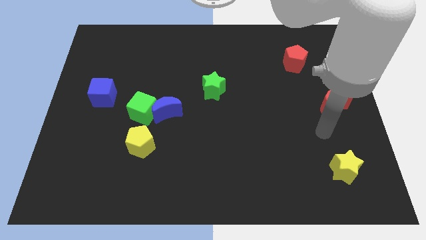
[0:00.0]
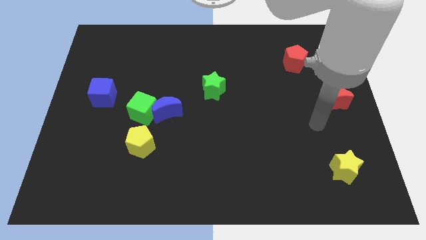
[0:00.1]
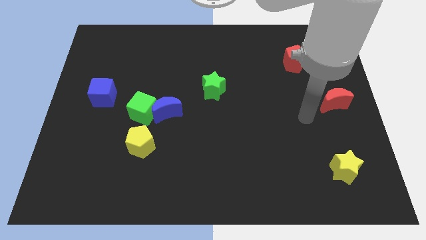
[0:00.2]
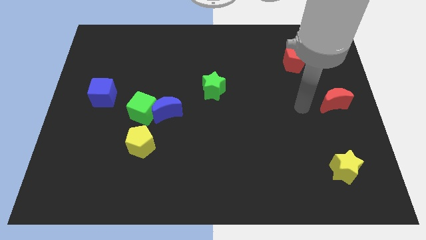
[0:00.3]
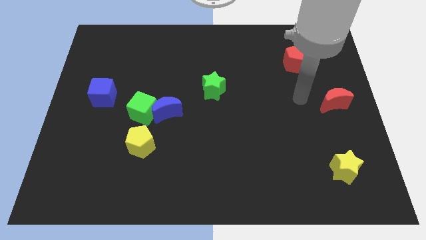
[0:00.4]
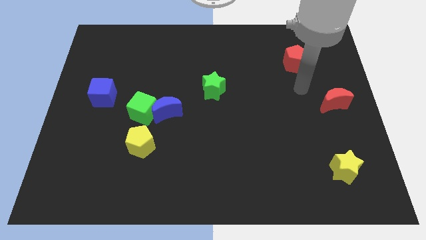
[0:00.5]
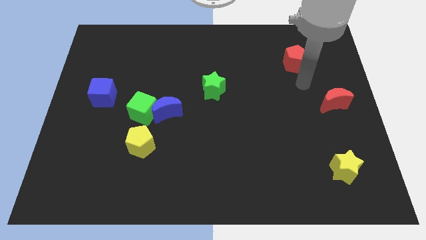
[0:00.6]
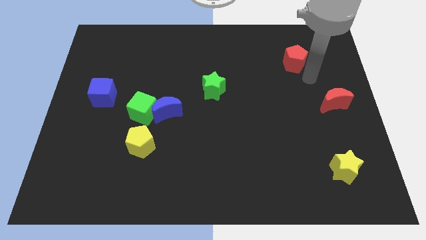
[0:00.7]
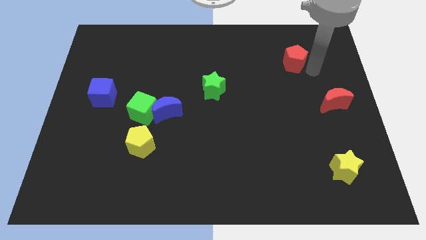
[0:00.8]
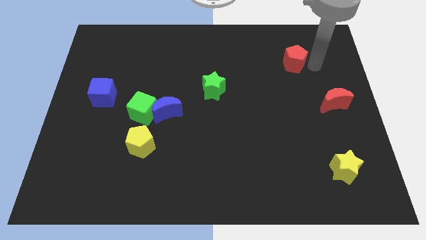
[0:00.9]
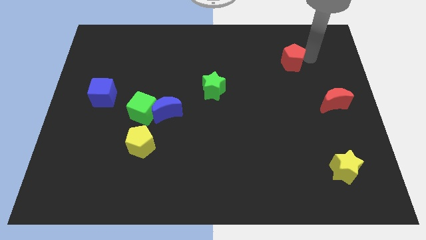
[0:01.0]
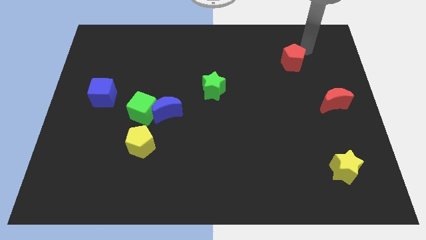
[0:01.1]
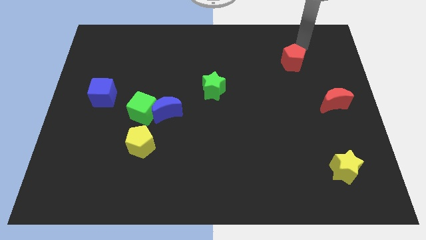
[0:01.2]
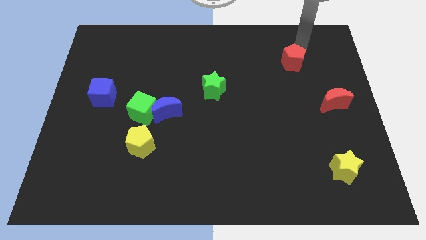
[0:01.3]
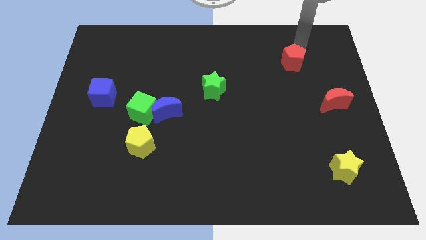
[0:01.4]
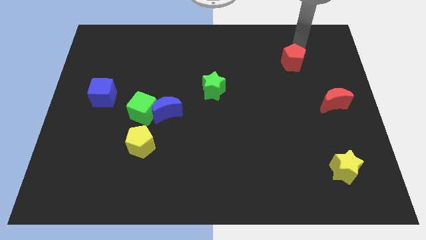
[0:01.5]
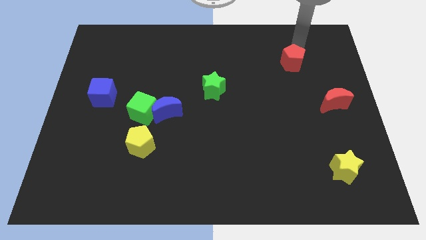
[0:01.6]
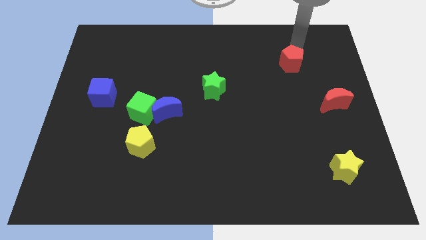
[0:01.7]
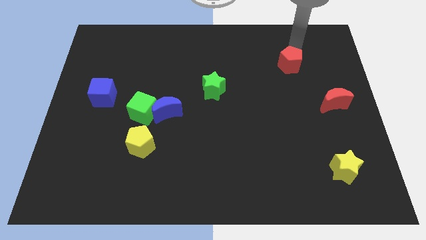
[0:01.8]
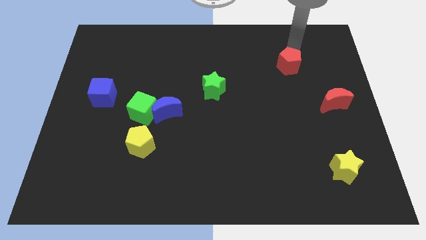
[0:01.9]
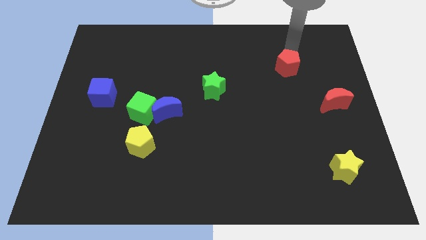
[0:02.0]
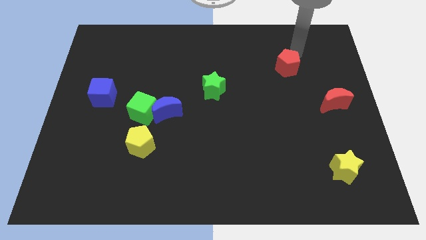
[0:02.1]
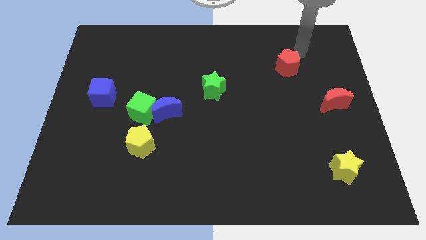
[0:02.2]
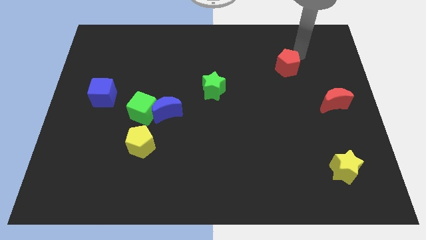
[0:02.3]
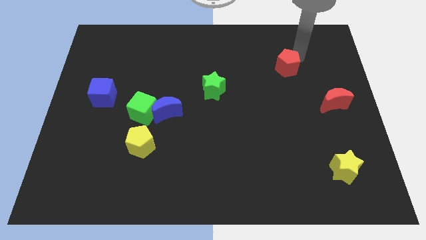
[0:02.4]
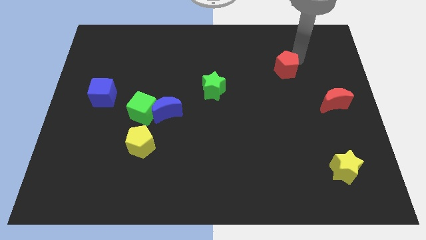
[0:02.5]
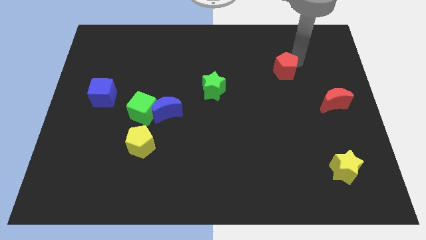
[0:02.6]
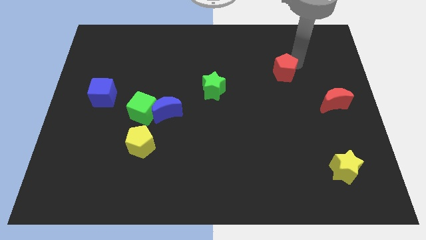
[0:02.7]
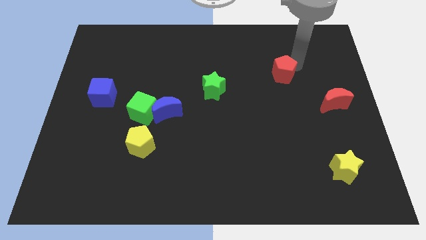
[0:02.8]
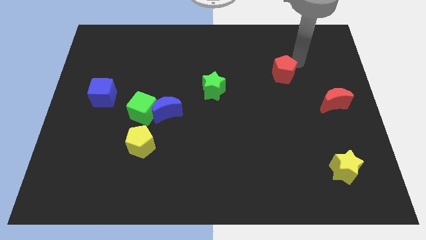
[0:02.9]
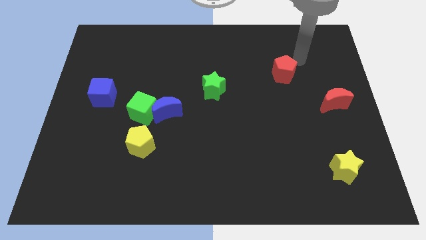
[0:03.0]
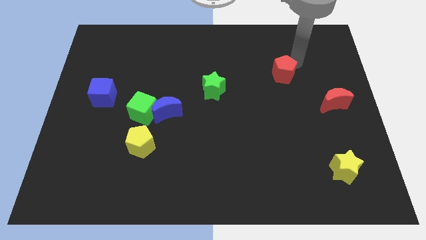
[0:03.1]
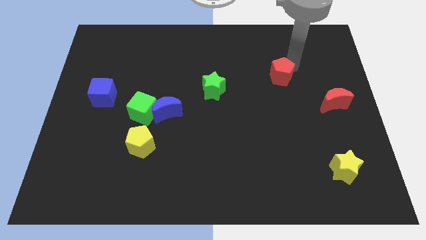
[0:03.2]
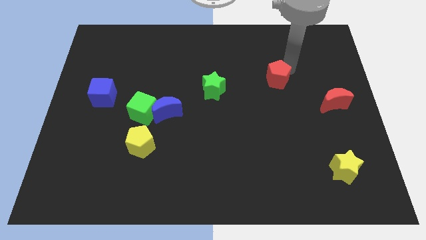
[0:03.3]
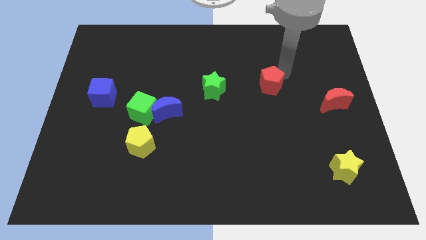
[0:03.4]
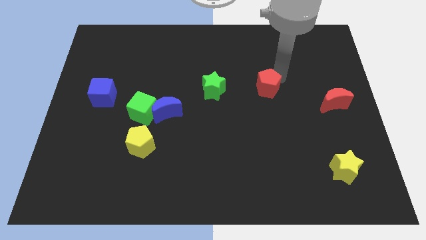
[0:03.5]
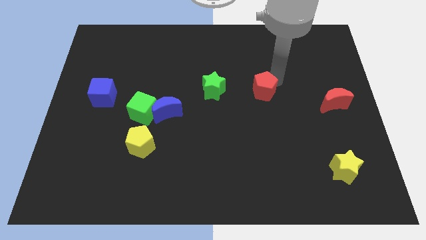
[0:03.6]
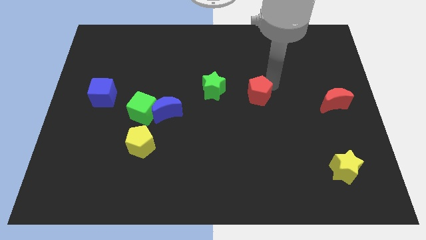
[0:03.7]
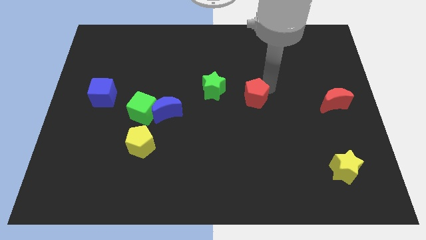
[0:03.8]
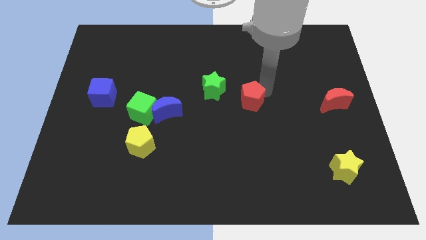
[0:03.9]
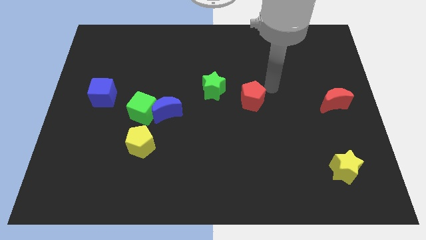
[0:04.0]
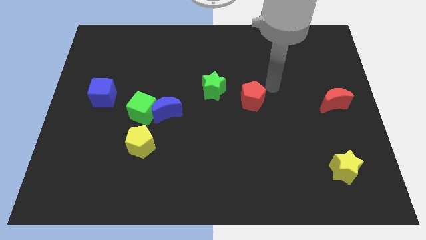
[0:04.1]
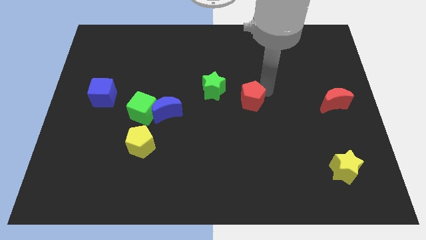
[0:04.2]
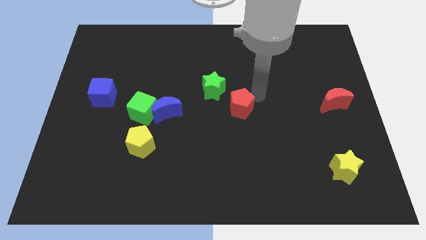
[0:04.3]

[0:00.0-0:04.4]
slide the red pentagon downwards and to the left

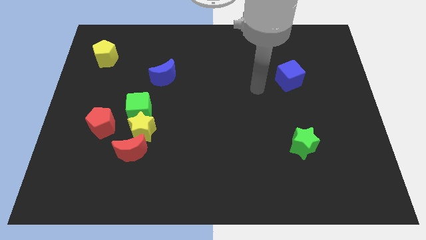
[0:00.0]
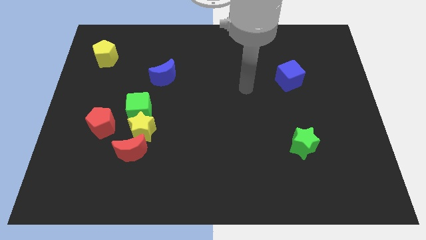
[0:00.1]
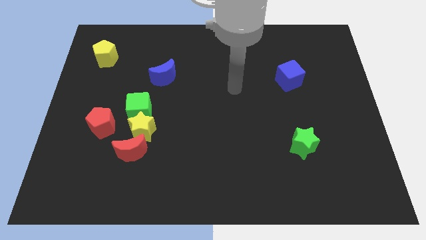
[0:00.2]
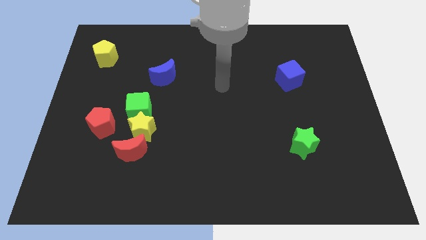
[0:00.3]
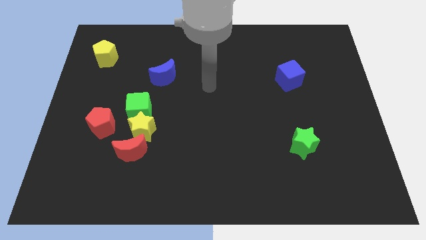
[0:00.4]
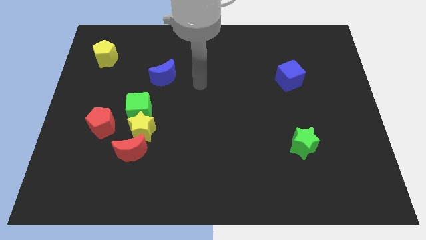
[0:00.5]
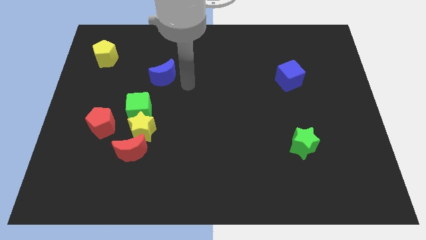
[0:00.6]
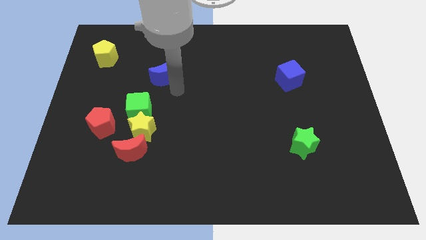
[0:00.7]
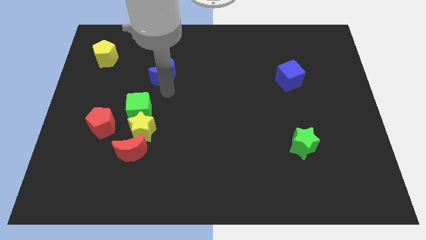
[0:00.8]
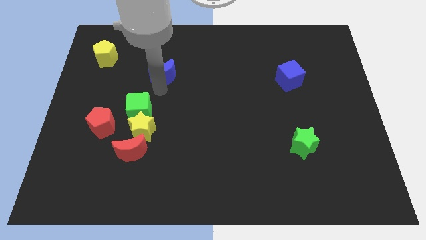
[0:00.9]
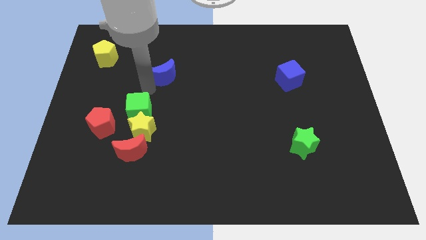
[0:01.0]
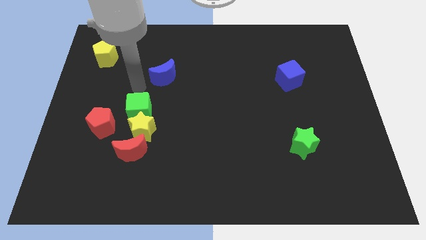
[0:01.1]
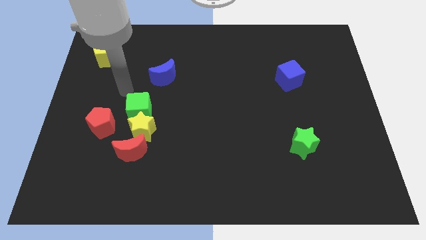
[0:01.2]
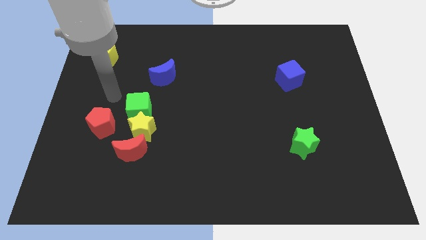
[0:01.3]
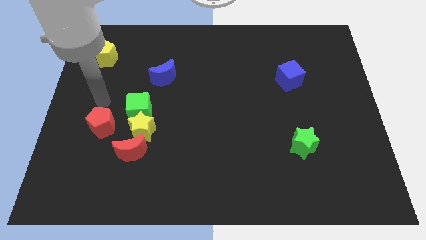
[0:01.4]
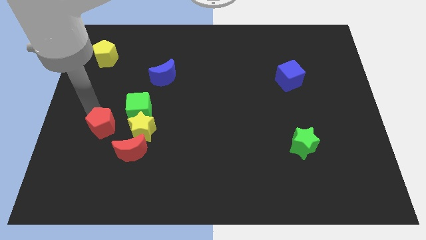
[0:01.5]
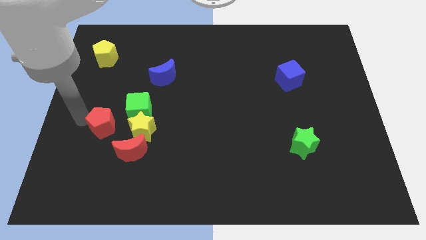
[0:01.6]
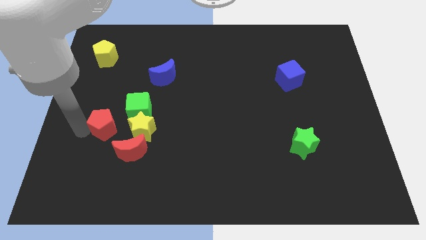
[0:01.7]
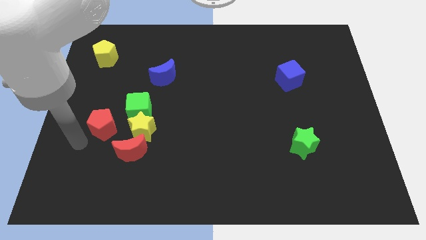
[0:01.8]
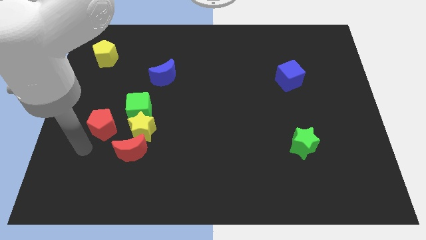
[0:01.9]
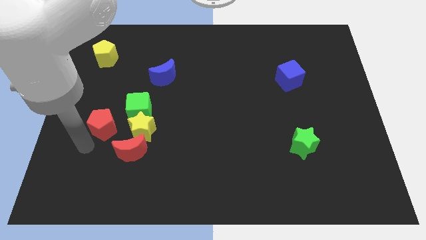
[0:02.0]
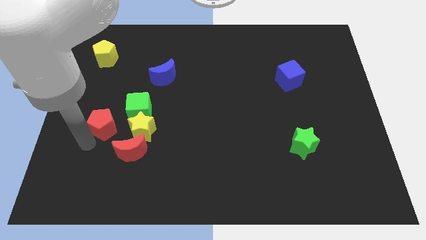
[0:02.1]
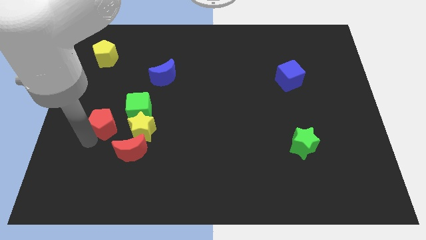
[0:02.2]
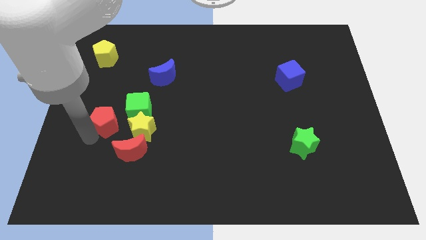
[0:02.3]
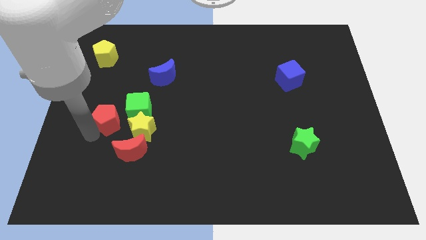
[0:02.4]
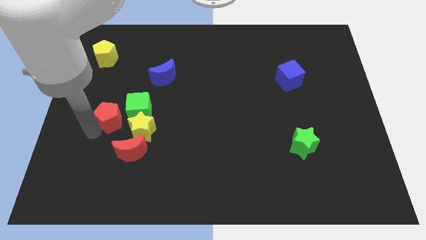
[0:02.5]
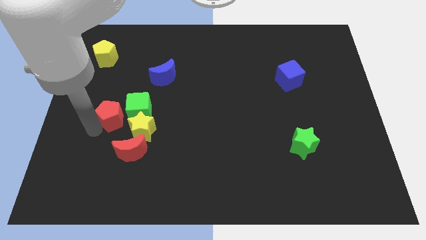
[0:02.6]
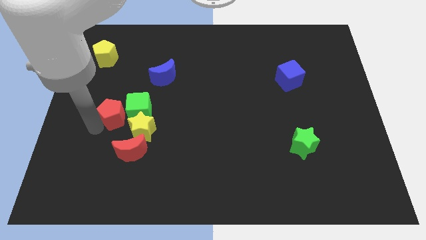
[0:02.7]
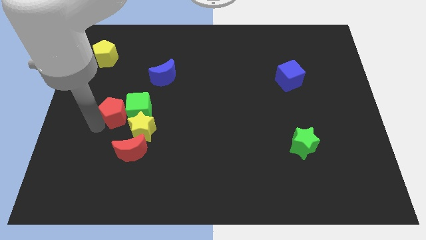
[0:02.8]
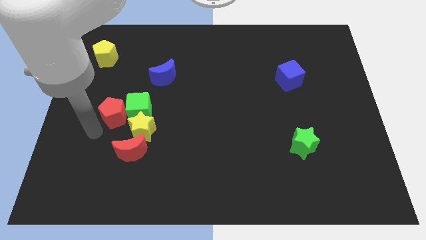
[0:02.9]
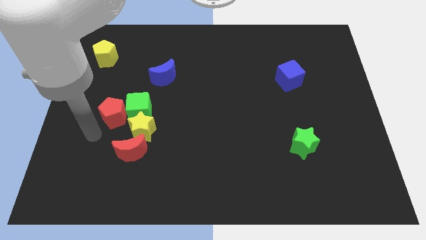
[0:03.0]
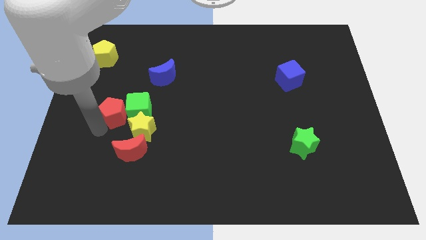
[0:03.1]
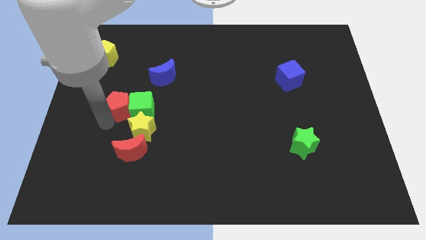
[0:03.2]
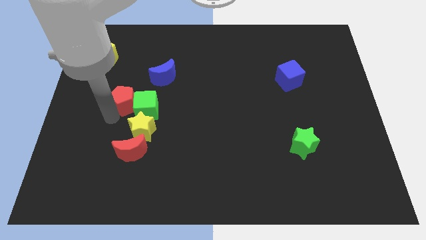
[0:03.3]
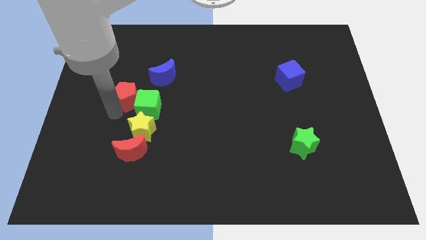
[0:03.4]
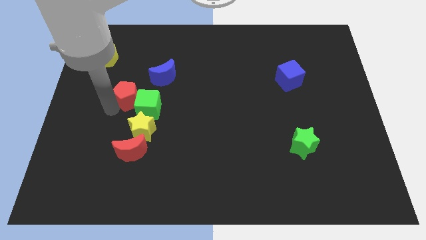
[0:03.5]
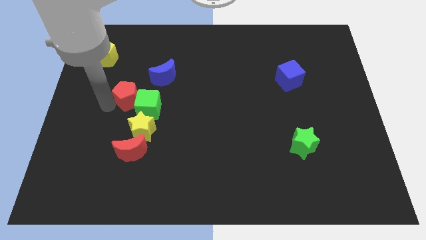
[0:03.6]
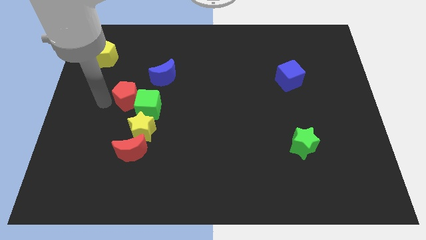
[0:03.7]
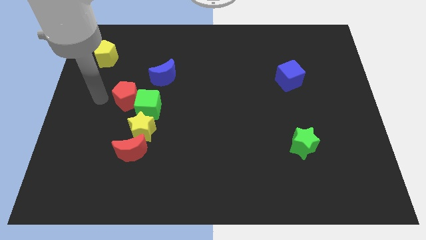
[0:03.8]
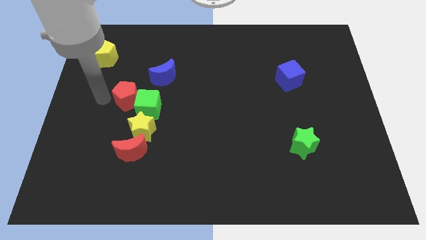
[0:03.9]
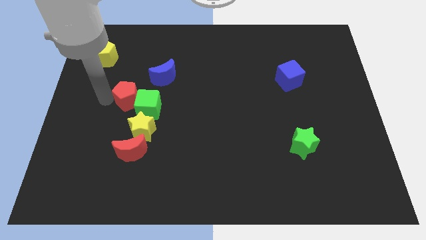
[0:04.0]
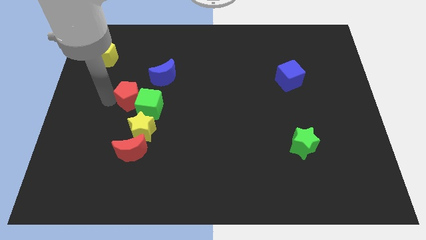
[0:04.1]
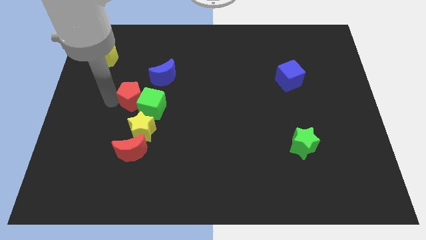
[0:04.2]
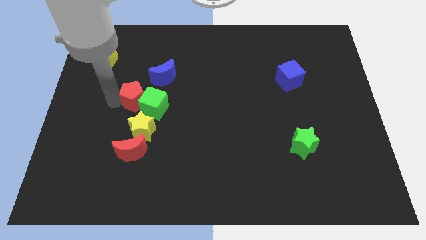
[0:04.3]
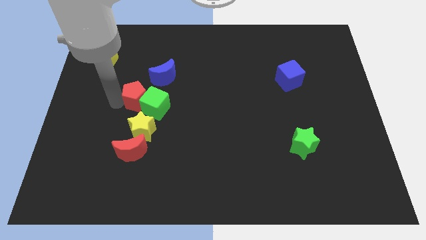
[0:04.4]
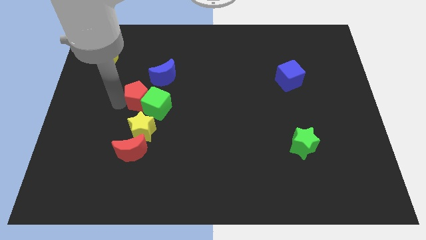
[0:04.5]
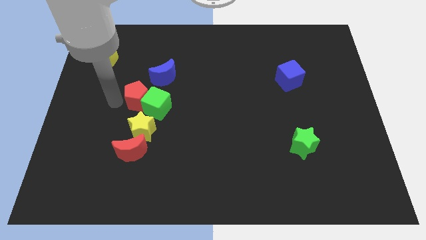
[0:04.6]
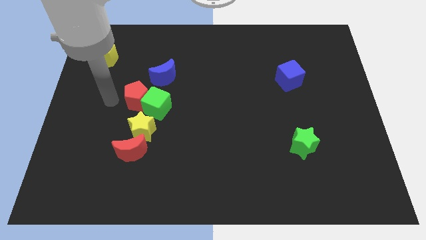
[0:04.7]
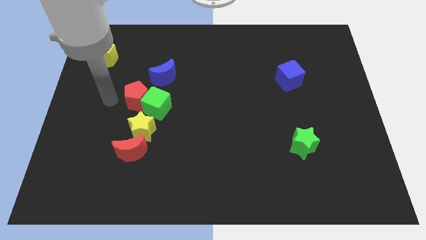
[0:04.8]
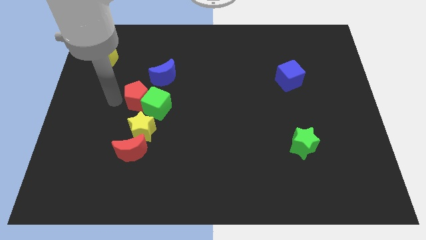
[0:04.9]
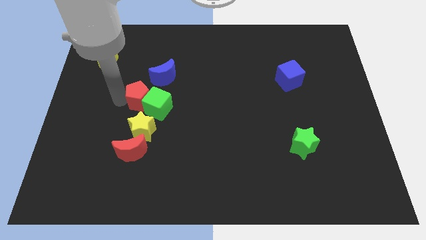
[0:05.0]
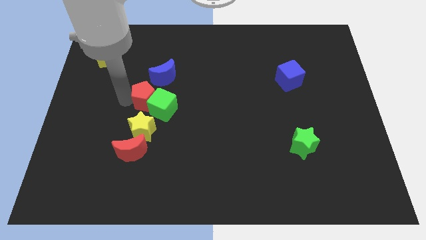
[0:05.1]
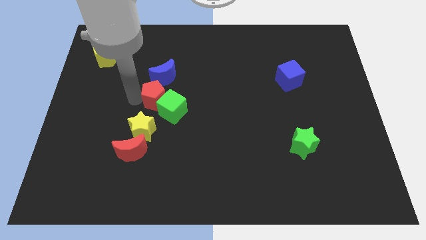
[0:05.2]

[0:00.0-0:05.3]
slightly push the red pentagon right
